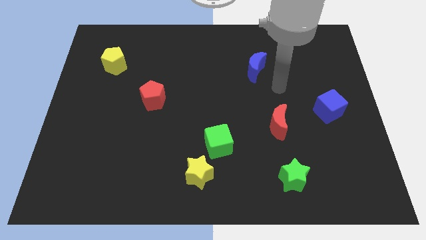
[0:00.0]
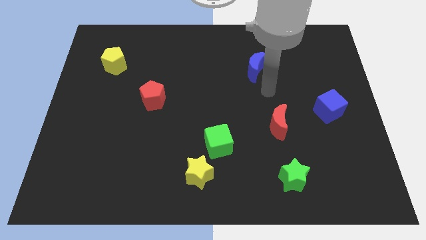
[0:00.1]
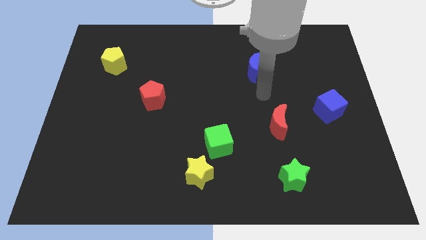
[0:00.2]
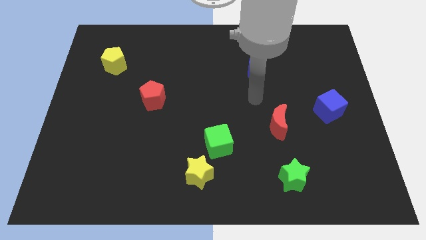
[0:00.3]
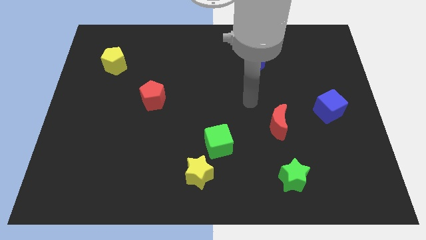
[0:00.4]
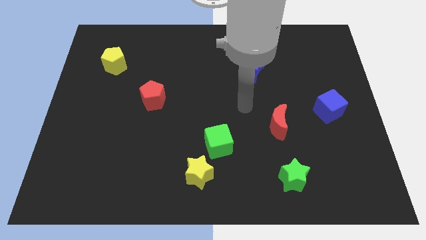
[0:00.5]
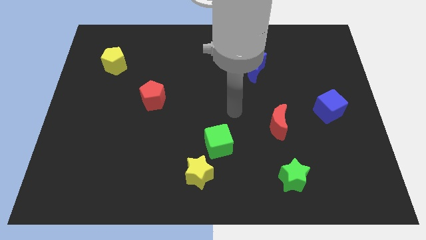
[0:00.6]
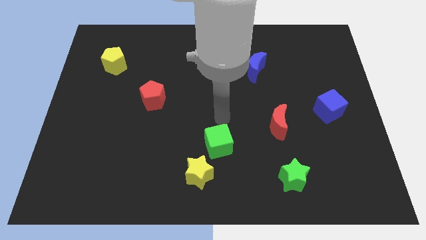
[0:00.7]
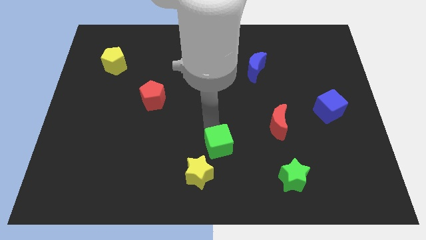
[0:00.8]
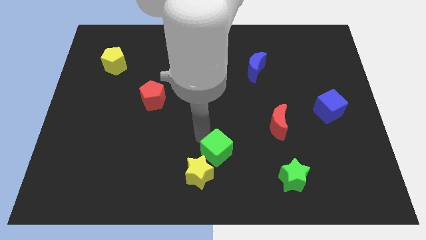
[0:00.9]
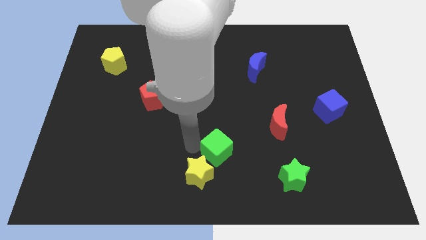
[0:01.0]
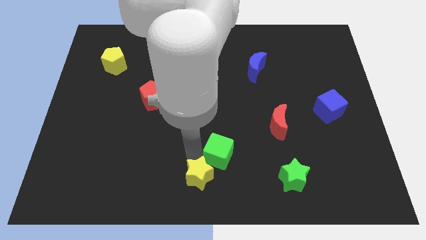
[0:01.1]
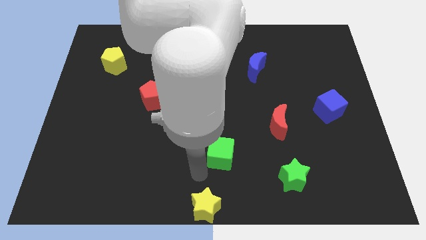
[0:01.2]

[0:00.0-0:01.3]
move the green cube away from the yellow star

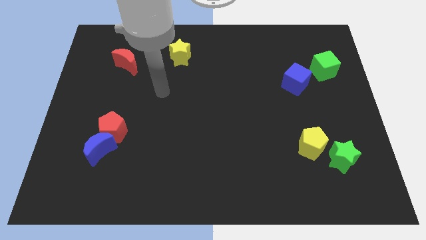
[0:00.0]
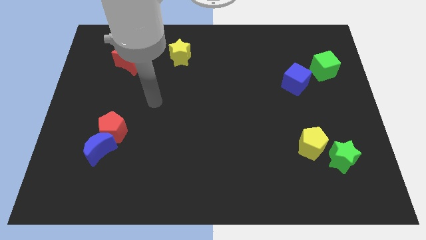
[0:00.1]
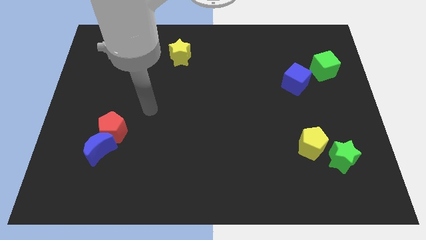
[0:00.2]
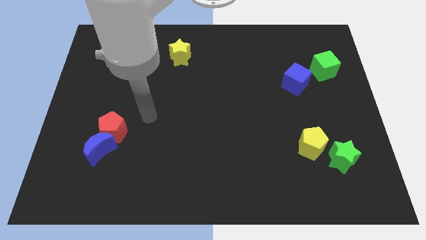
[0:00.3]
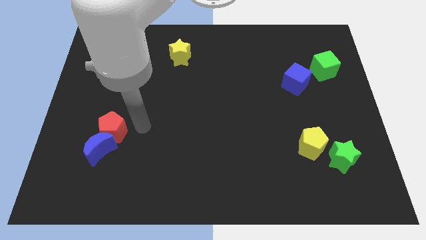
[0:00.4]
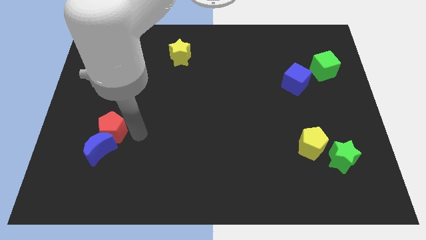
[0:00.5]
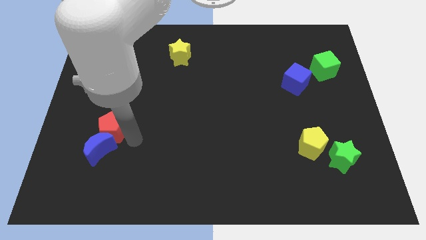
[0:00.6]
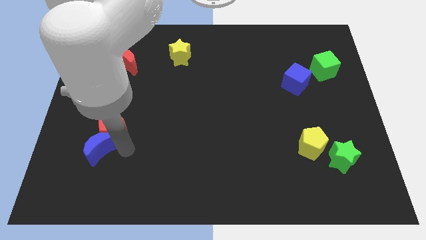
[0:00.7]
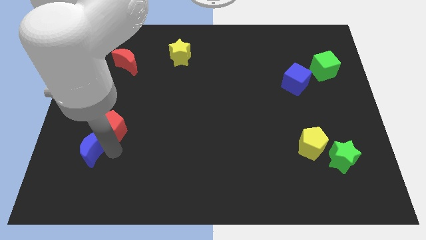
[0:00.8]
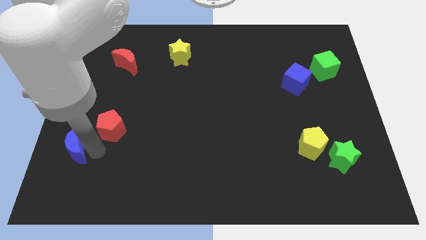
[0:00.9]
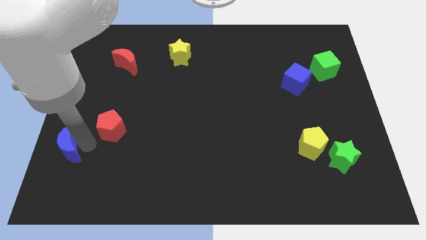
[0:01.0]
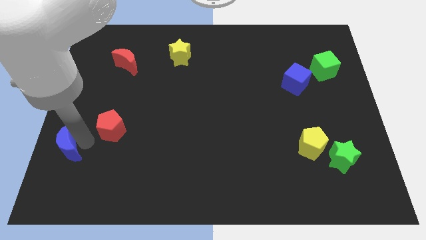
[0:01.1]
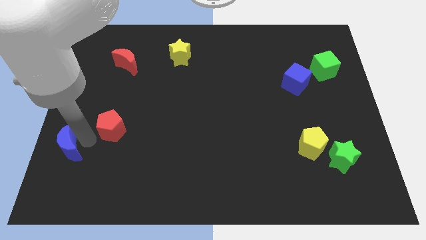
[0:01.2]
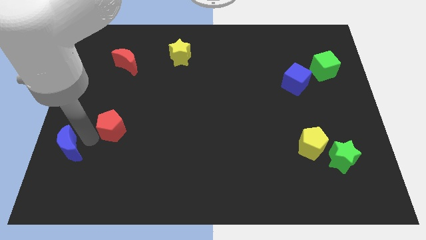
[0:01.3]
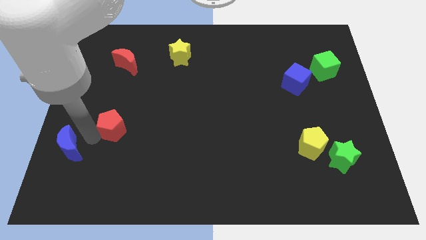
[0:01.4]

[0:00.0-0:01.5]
move the red pentagon away from the blue moon

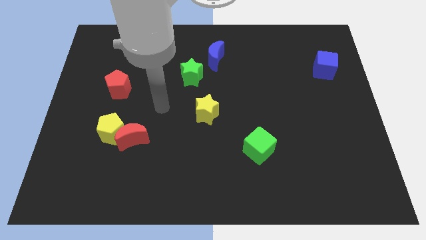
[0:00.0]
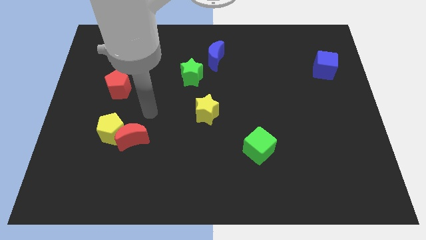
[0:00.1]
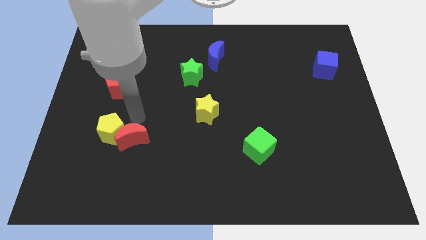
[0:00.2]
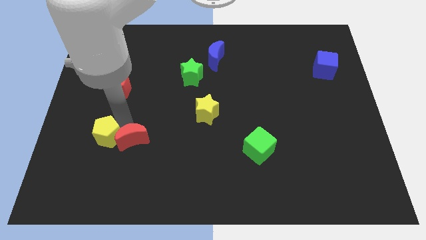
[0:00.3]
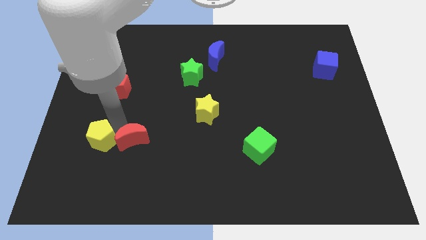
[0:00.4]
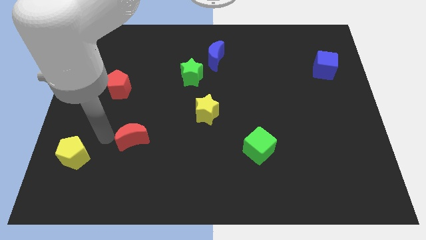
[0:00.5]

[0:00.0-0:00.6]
separate the red moon from the yellow pentagon

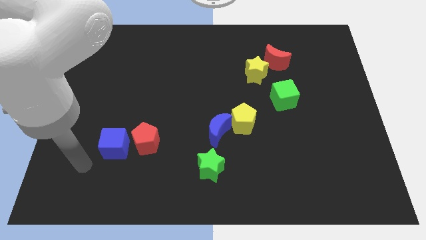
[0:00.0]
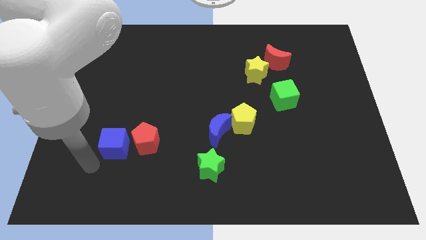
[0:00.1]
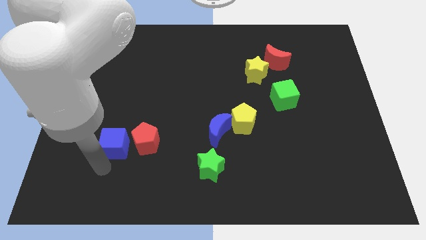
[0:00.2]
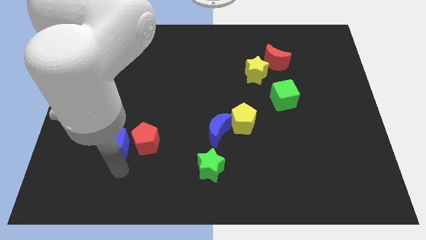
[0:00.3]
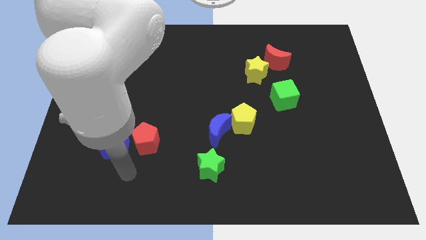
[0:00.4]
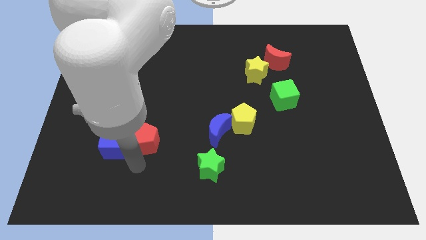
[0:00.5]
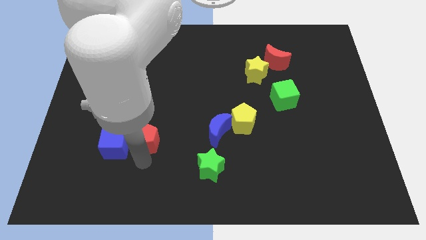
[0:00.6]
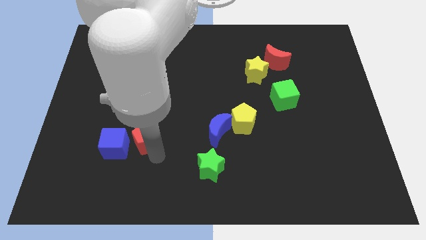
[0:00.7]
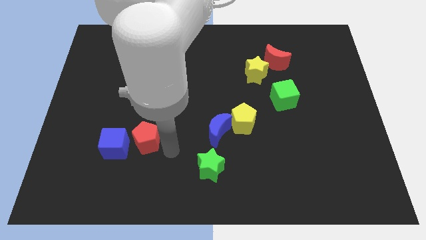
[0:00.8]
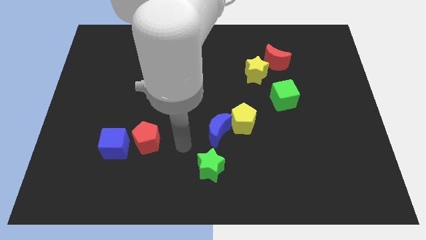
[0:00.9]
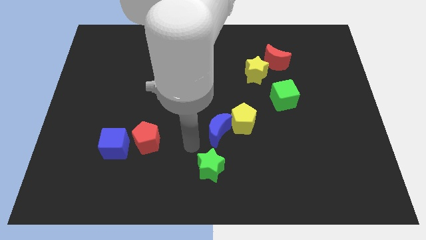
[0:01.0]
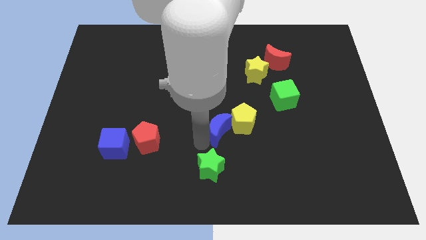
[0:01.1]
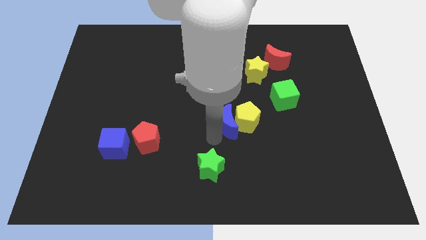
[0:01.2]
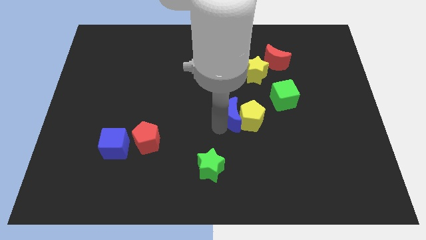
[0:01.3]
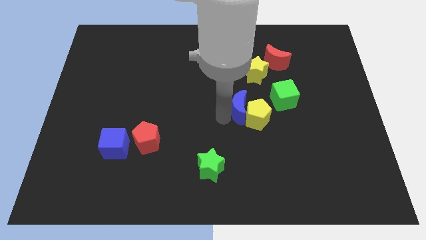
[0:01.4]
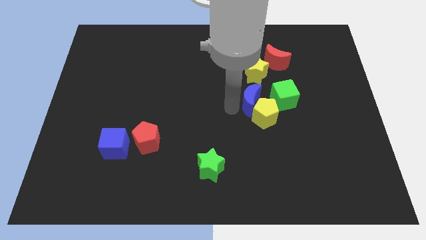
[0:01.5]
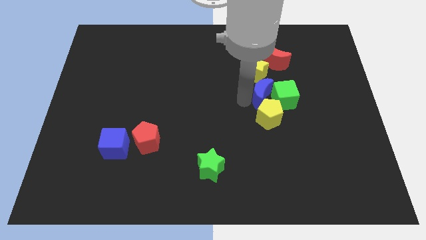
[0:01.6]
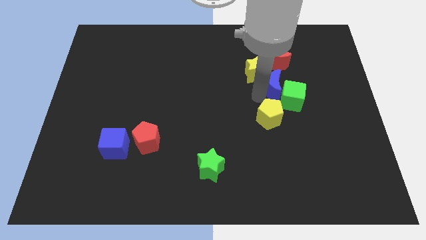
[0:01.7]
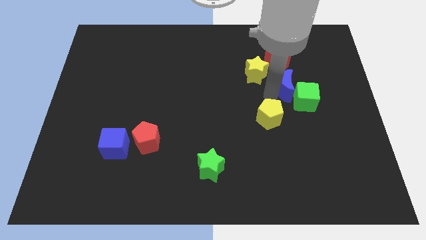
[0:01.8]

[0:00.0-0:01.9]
move the yellow pentagon away from the blue moon

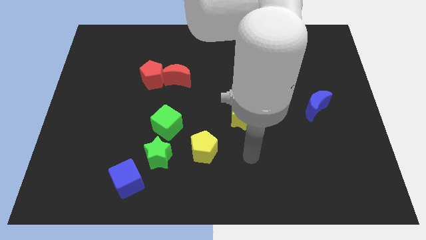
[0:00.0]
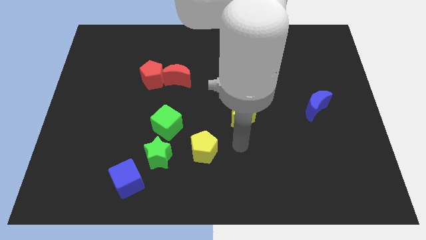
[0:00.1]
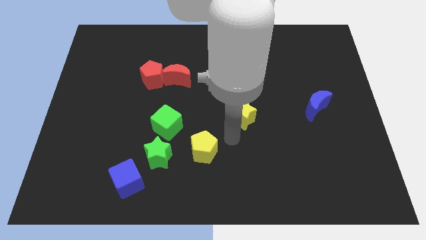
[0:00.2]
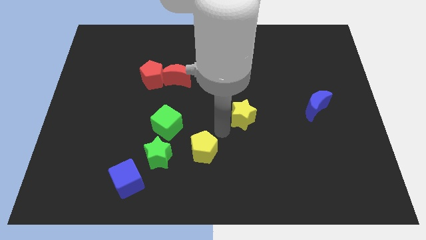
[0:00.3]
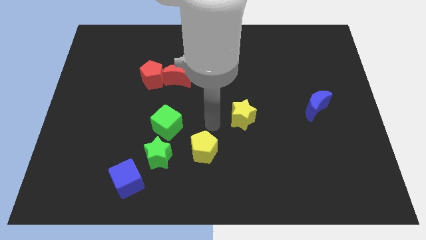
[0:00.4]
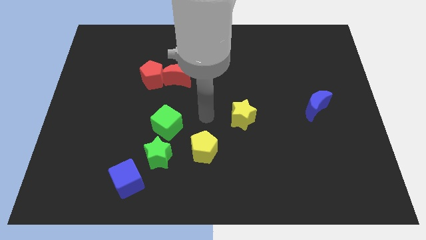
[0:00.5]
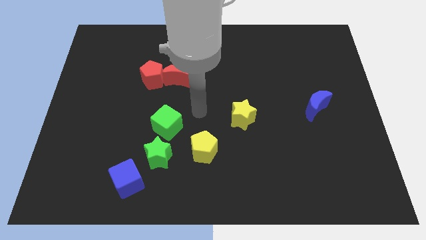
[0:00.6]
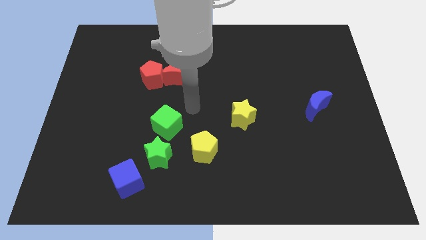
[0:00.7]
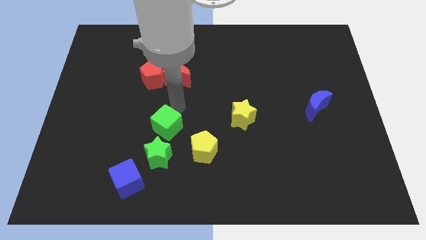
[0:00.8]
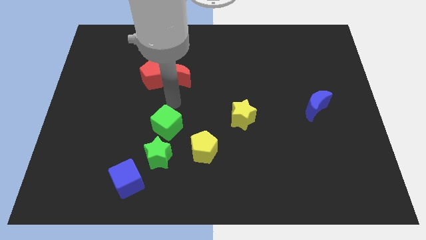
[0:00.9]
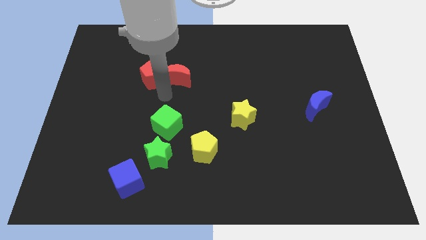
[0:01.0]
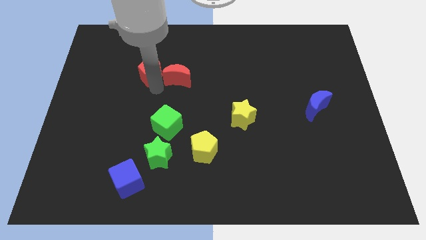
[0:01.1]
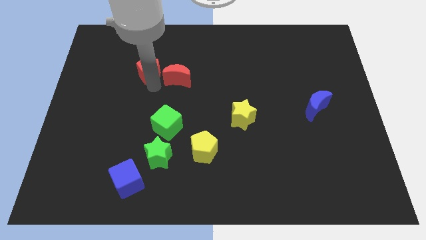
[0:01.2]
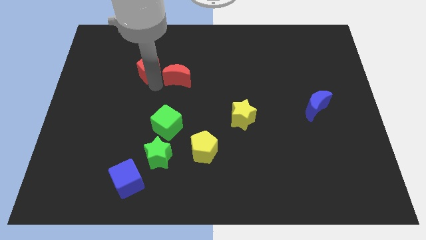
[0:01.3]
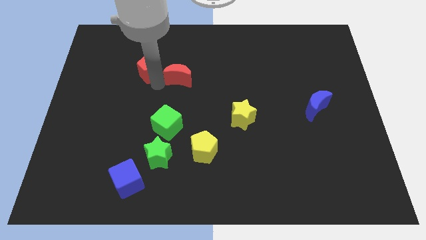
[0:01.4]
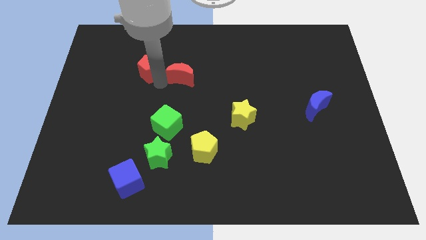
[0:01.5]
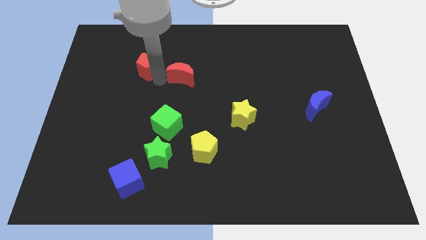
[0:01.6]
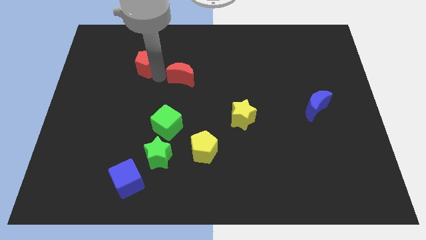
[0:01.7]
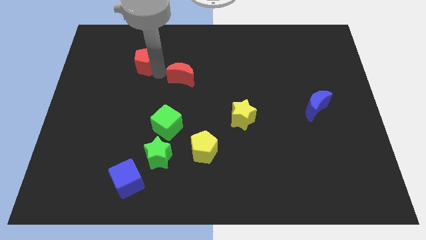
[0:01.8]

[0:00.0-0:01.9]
separate the red moon from the red pentagon

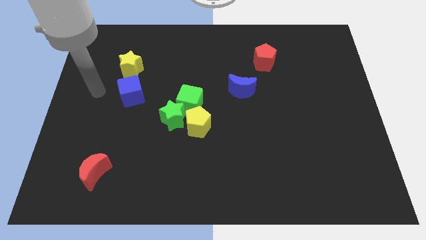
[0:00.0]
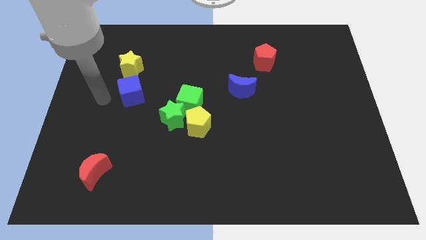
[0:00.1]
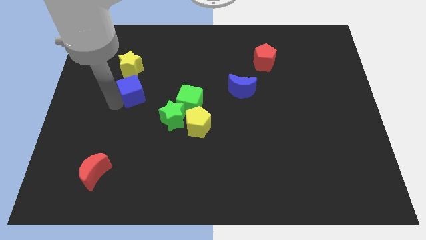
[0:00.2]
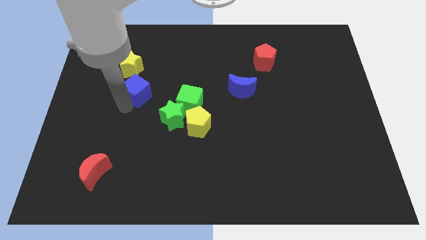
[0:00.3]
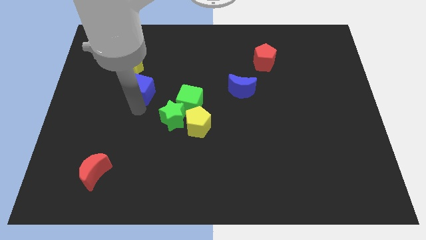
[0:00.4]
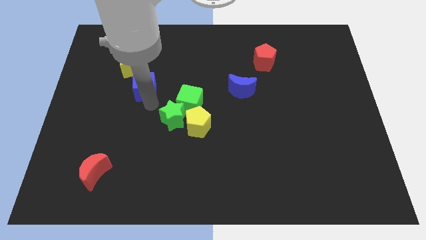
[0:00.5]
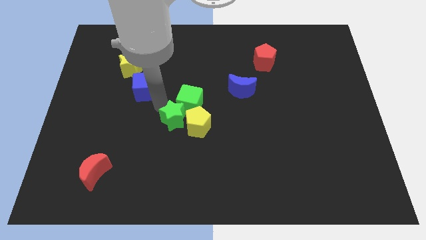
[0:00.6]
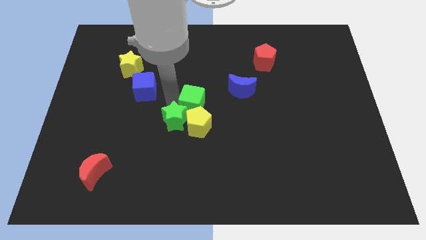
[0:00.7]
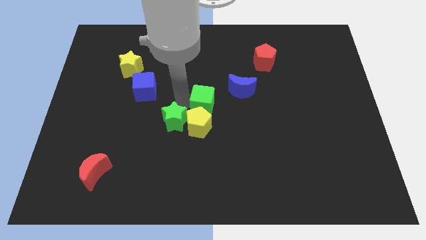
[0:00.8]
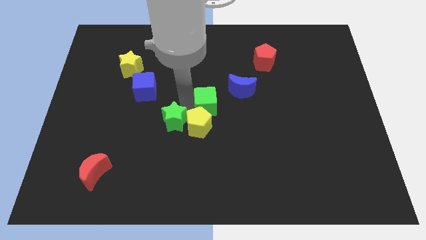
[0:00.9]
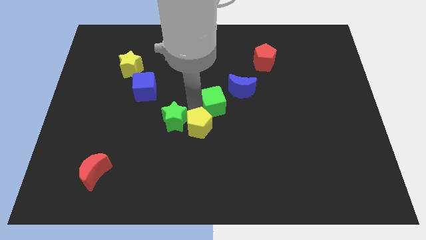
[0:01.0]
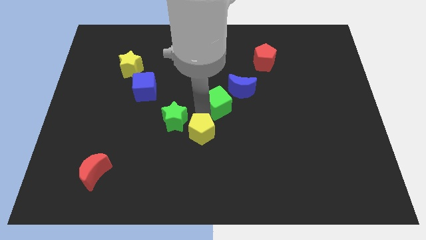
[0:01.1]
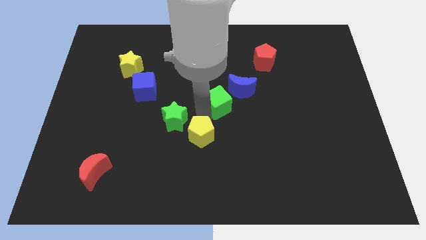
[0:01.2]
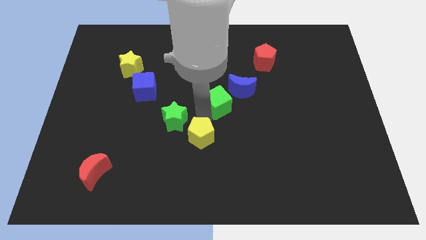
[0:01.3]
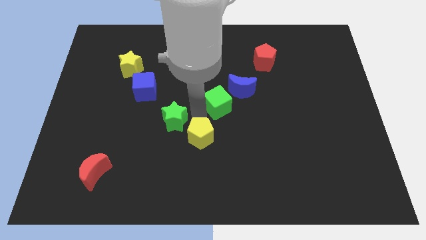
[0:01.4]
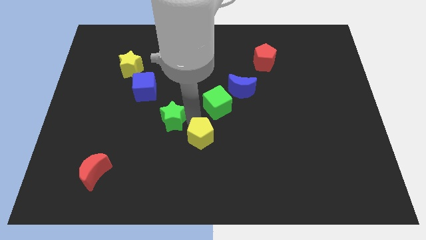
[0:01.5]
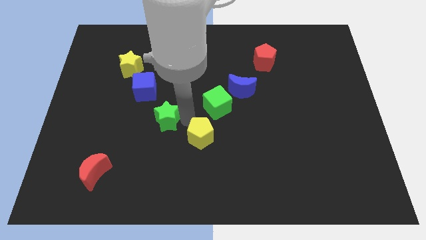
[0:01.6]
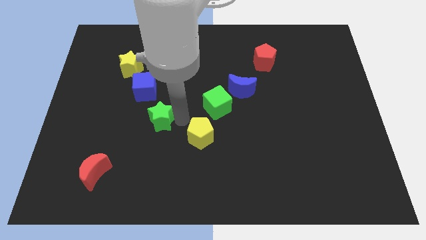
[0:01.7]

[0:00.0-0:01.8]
separate the green star from the green cube and yellow pentagon

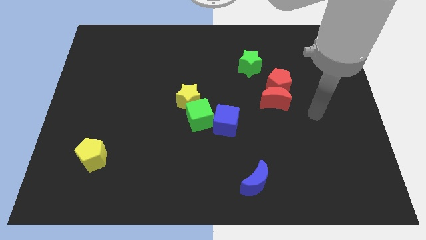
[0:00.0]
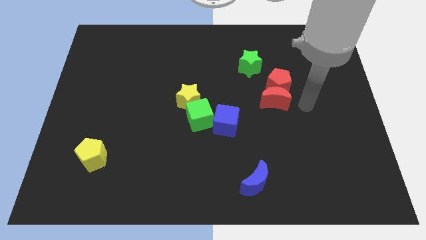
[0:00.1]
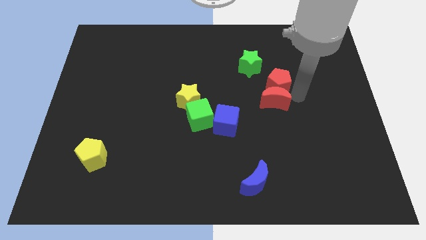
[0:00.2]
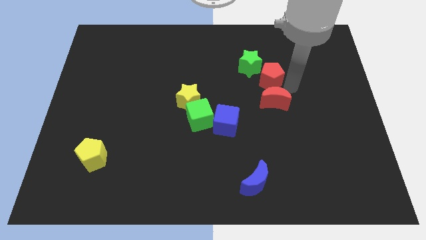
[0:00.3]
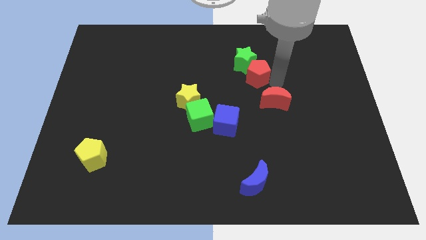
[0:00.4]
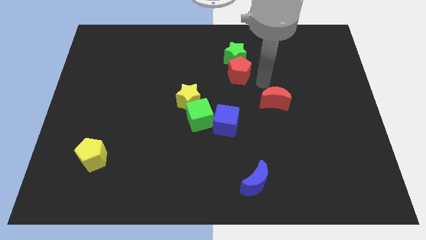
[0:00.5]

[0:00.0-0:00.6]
move the red moon away from the red pentagon
